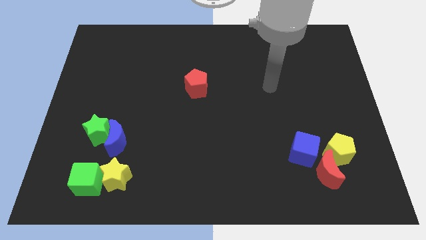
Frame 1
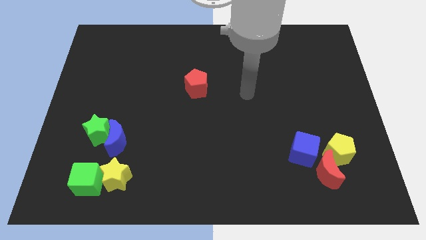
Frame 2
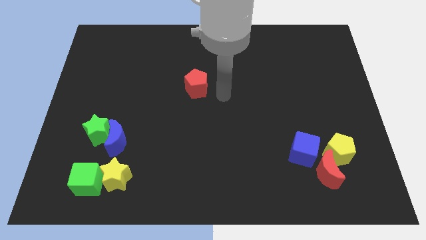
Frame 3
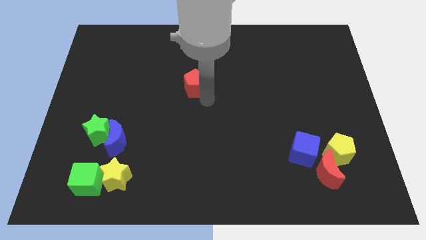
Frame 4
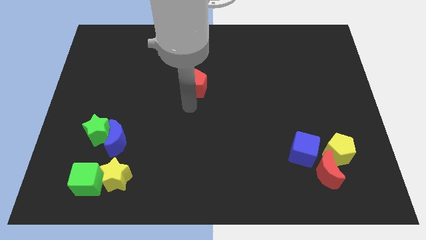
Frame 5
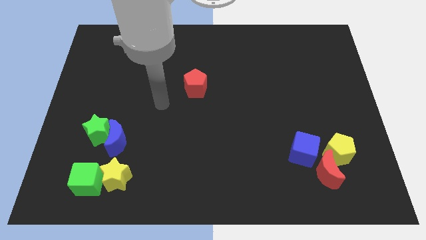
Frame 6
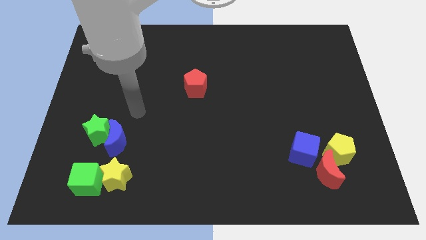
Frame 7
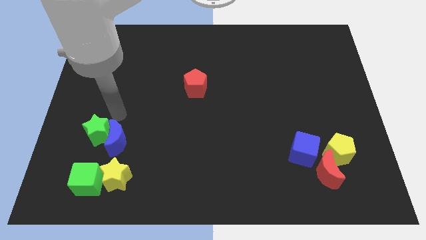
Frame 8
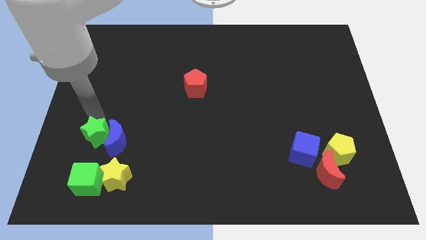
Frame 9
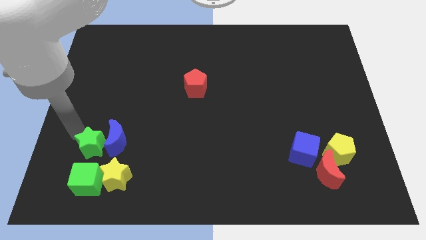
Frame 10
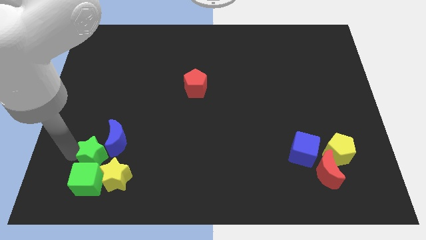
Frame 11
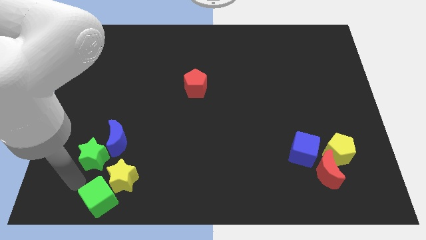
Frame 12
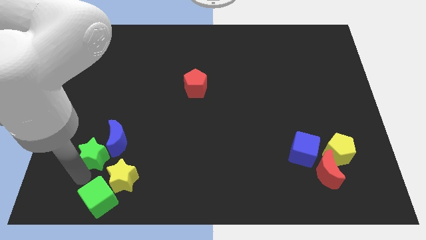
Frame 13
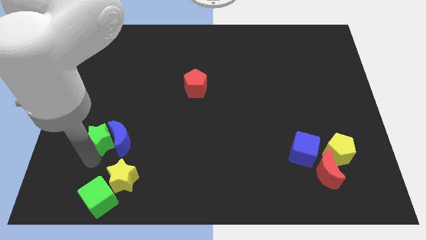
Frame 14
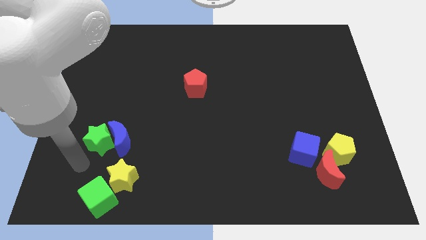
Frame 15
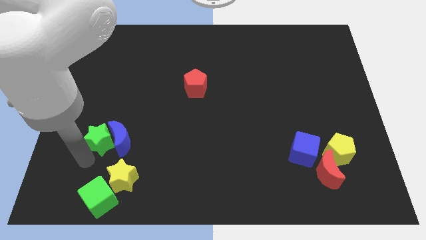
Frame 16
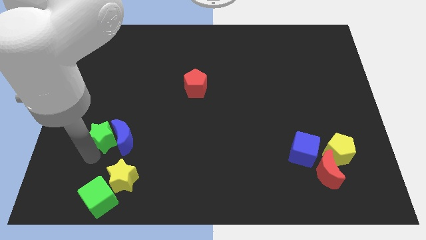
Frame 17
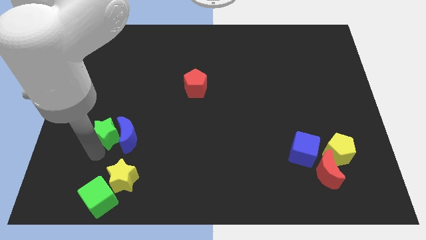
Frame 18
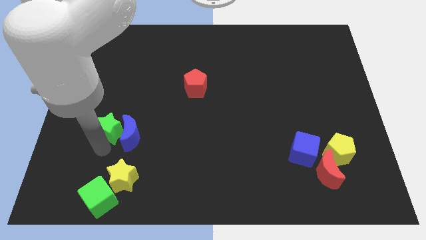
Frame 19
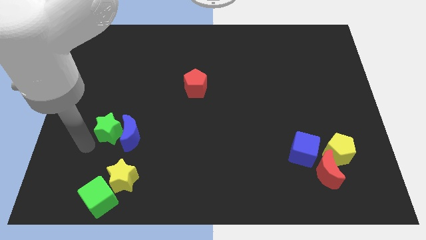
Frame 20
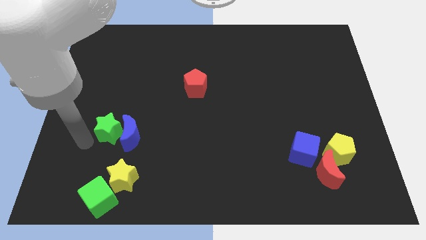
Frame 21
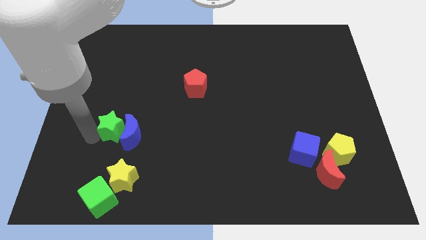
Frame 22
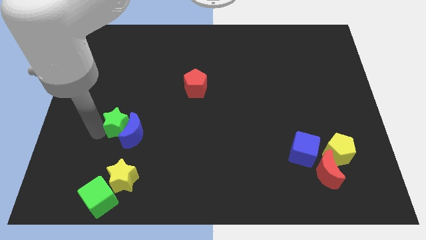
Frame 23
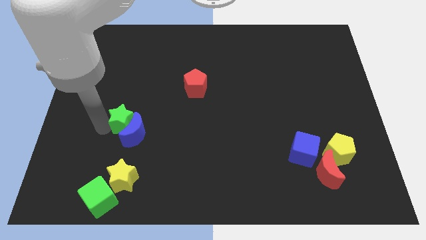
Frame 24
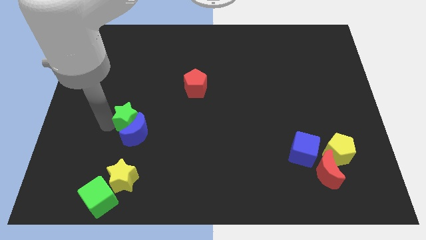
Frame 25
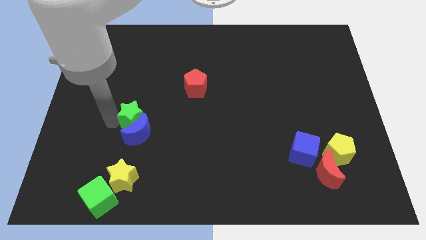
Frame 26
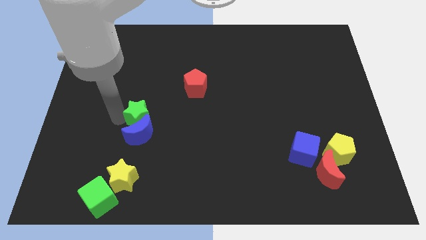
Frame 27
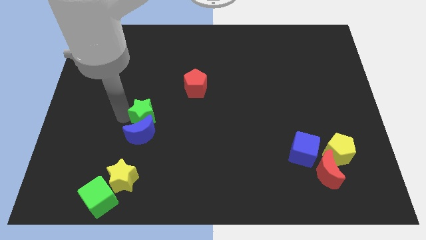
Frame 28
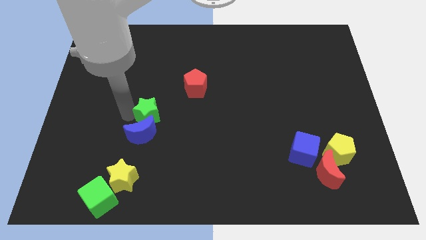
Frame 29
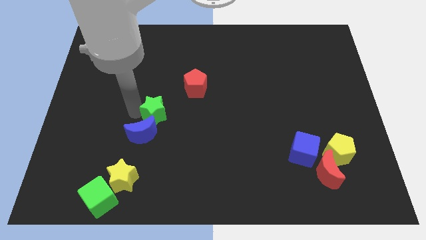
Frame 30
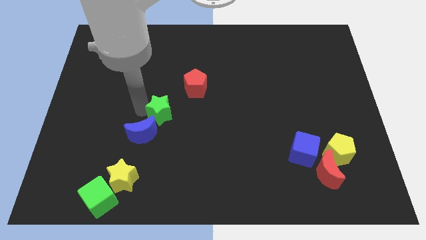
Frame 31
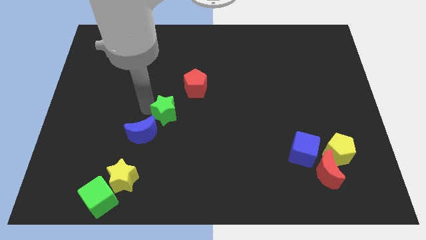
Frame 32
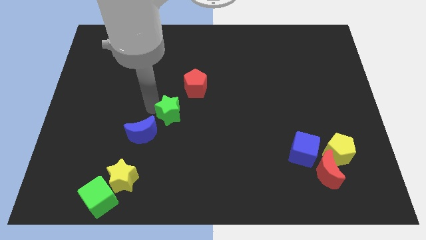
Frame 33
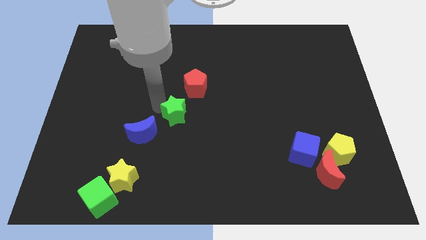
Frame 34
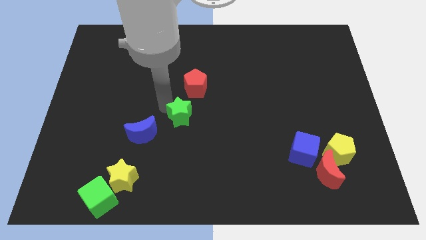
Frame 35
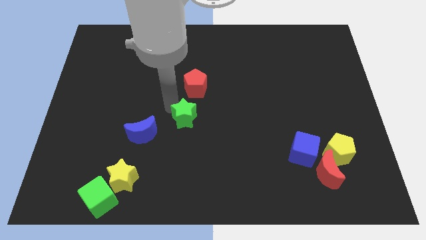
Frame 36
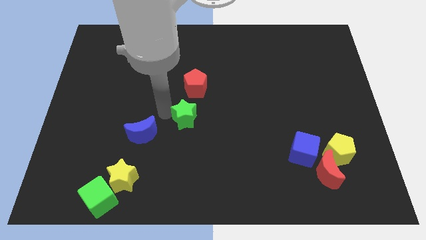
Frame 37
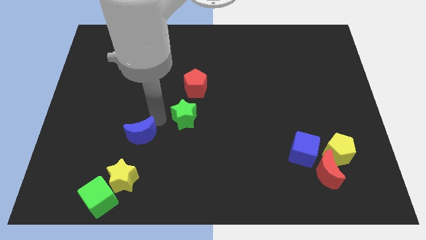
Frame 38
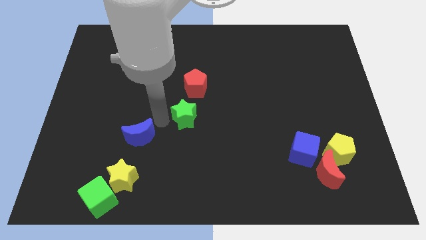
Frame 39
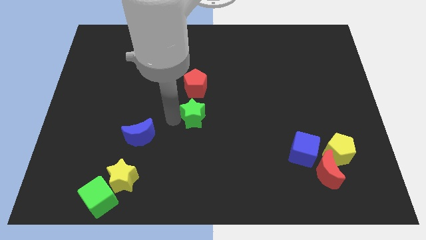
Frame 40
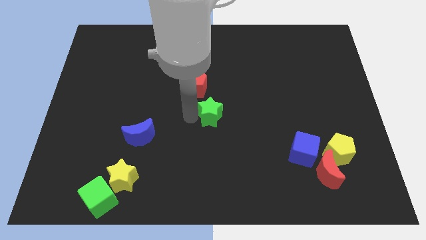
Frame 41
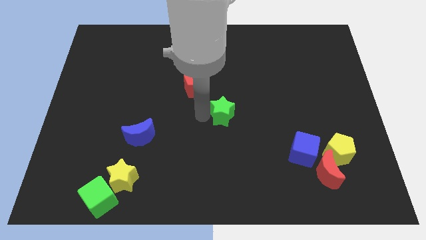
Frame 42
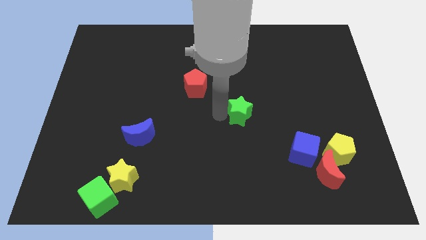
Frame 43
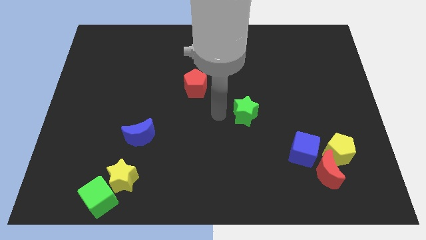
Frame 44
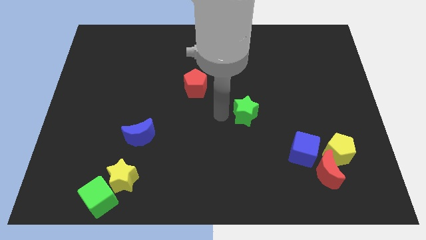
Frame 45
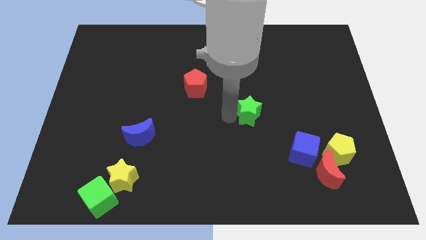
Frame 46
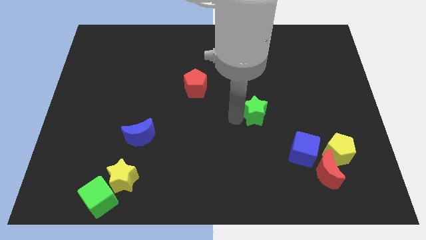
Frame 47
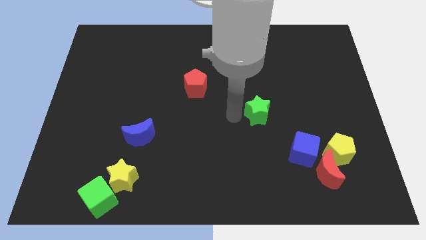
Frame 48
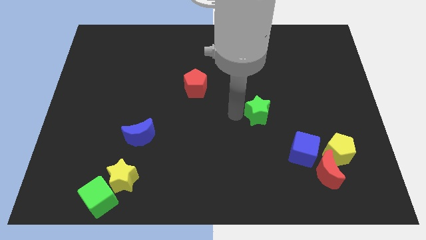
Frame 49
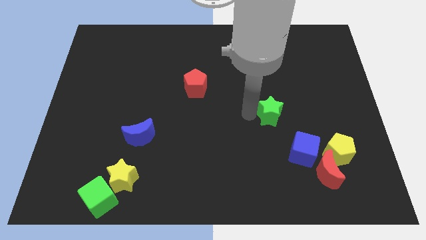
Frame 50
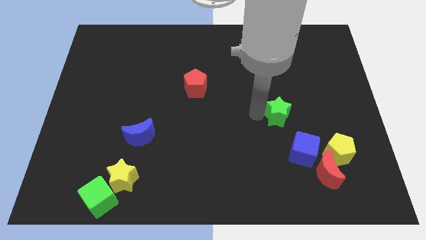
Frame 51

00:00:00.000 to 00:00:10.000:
push the green star to the top side of the blue cube

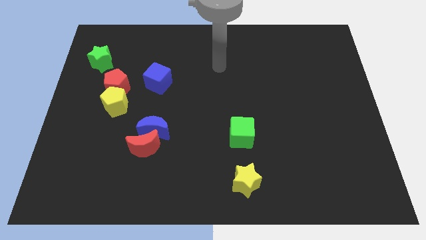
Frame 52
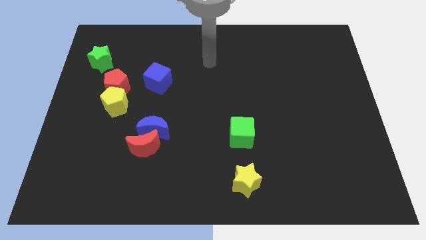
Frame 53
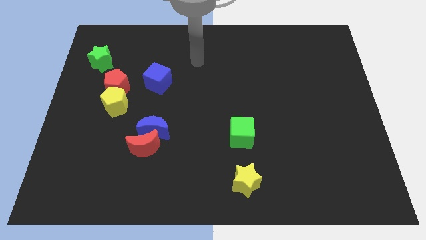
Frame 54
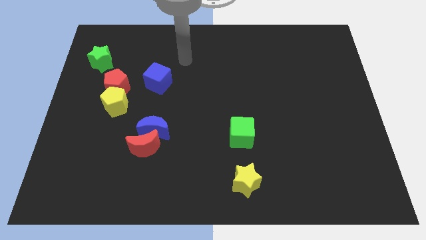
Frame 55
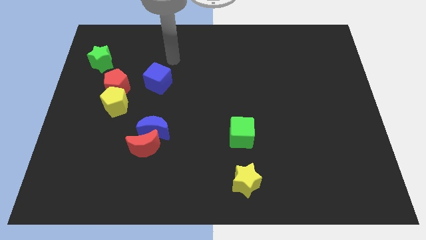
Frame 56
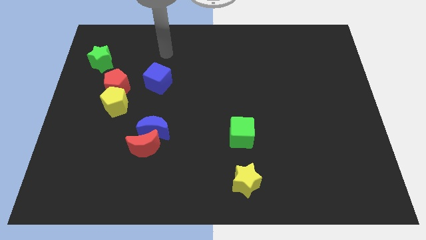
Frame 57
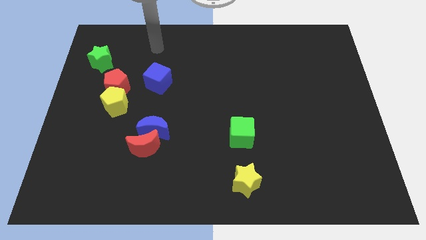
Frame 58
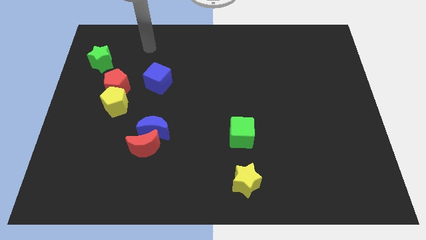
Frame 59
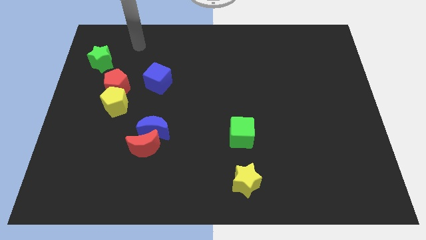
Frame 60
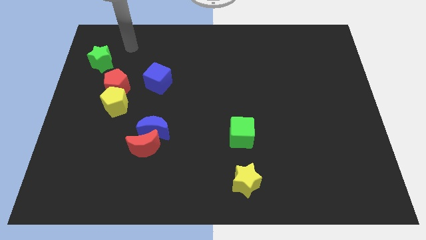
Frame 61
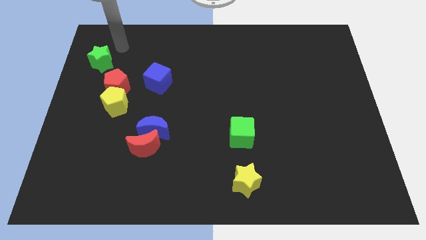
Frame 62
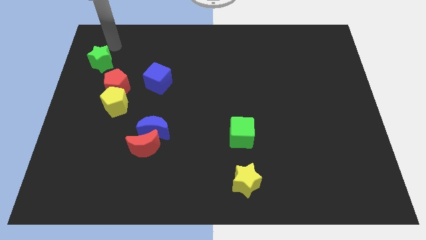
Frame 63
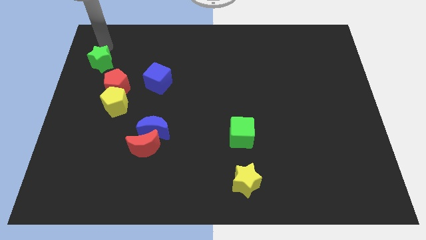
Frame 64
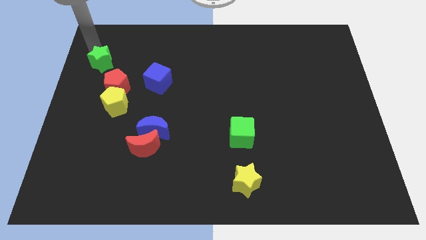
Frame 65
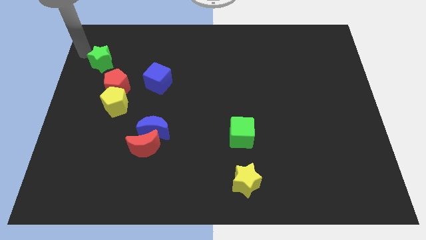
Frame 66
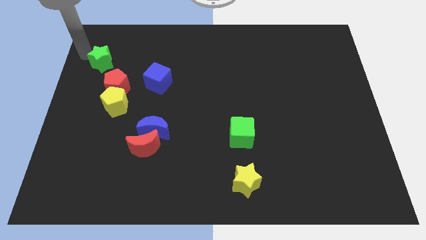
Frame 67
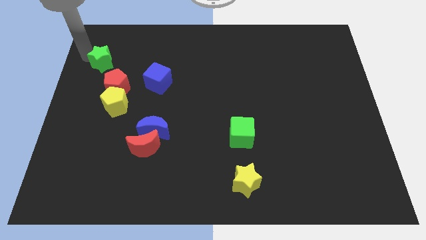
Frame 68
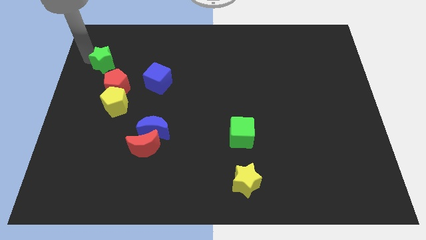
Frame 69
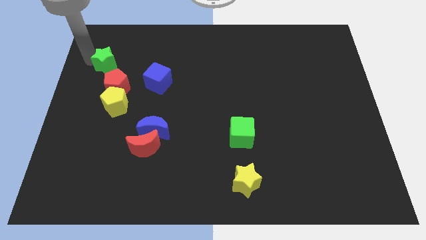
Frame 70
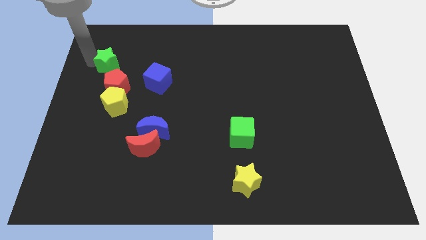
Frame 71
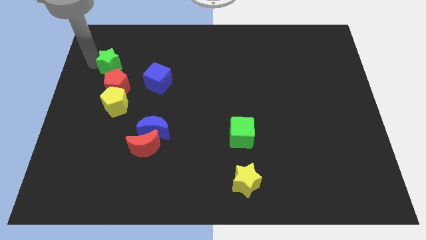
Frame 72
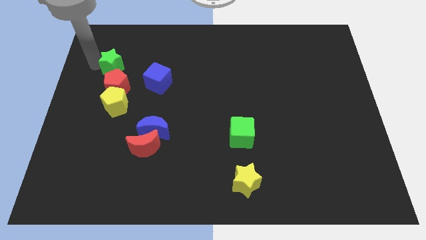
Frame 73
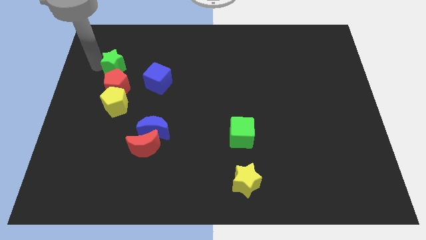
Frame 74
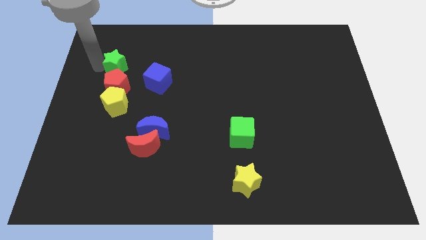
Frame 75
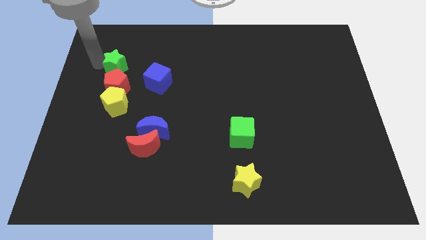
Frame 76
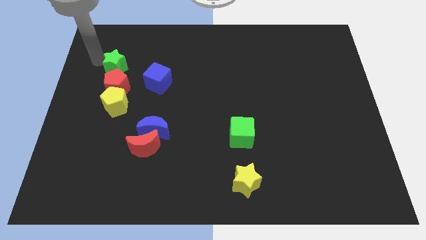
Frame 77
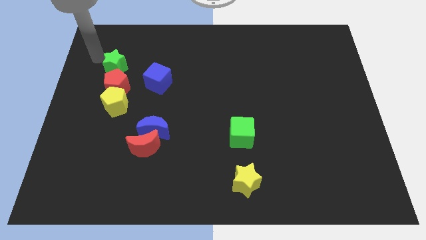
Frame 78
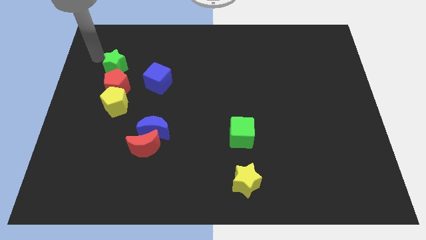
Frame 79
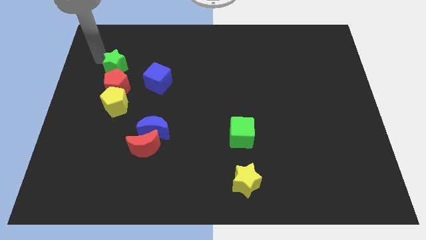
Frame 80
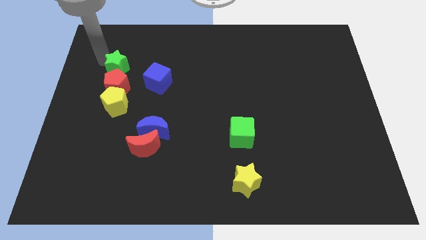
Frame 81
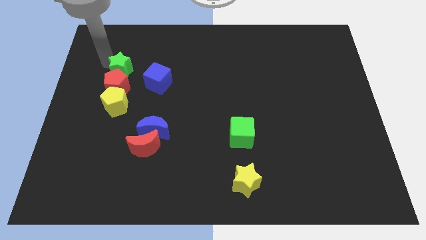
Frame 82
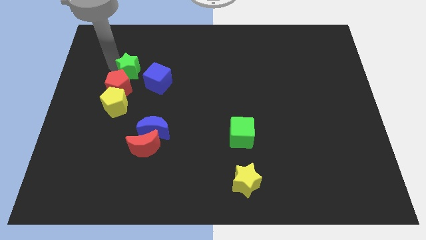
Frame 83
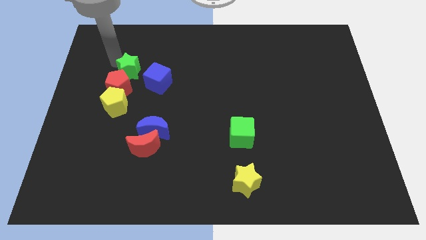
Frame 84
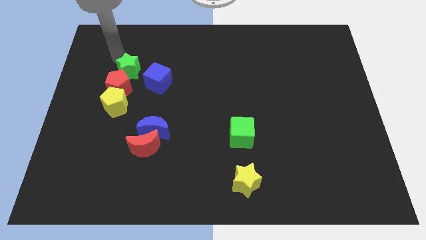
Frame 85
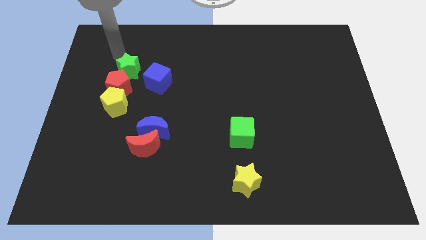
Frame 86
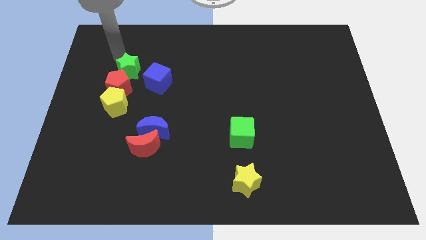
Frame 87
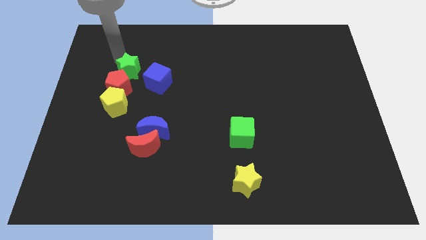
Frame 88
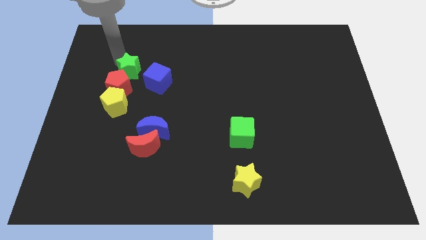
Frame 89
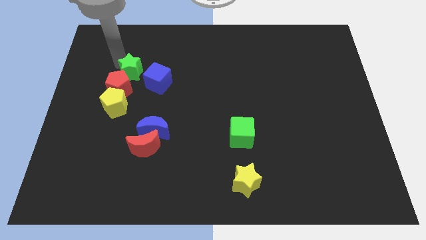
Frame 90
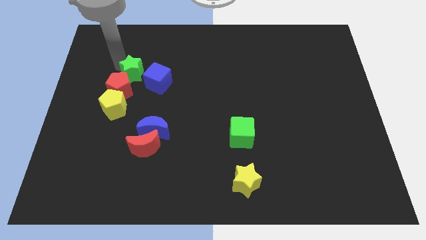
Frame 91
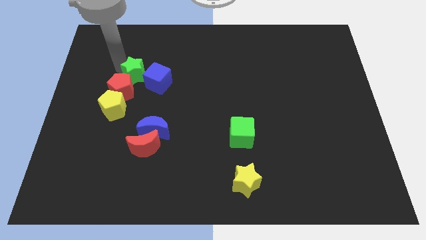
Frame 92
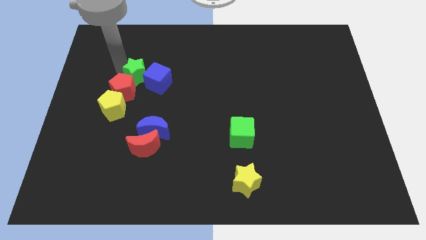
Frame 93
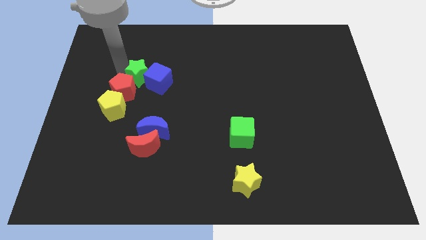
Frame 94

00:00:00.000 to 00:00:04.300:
move the green star to the top right of the yellow pentagon
